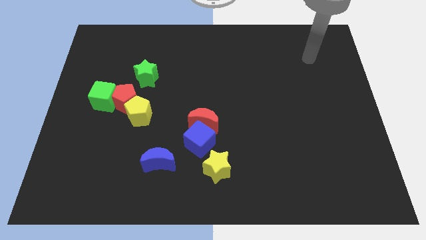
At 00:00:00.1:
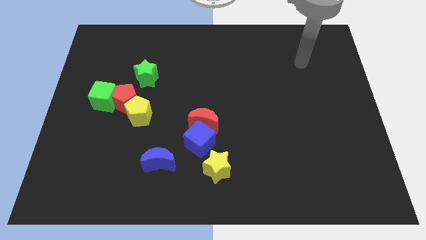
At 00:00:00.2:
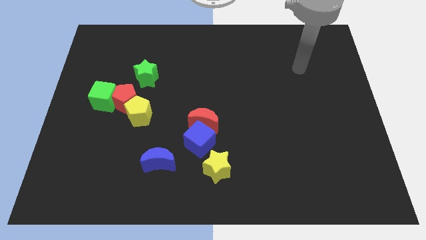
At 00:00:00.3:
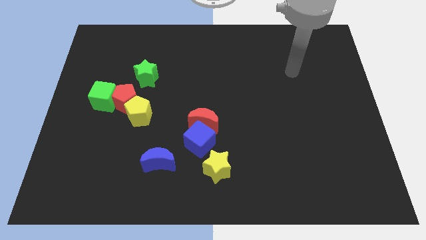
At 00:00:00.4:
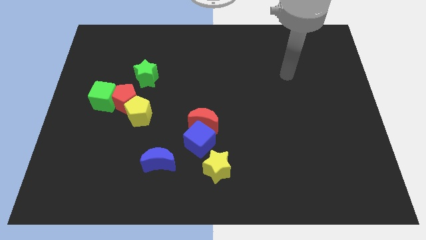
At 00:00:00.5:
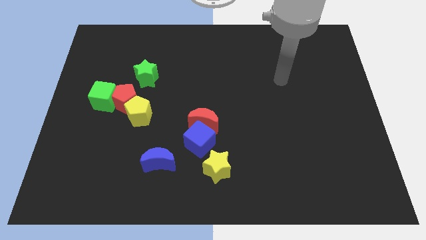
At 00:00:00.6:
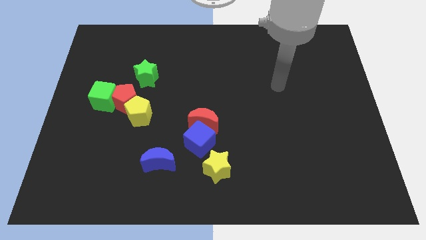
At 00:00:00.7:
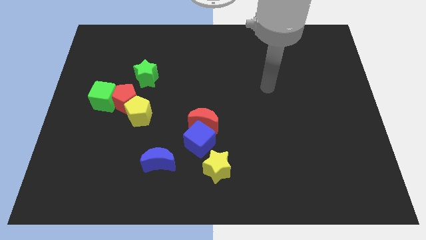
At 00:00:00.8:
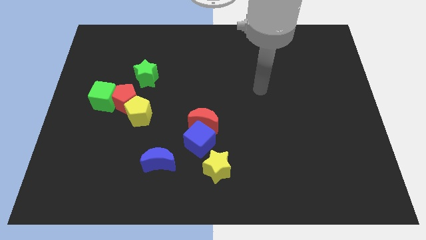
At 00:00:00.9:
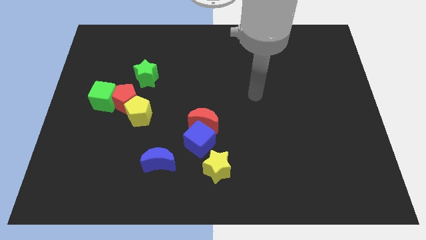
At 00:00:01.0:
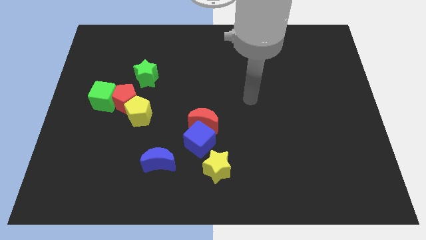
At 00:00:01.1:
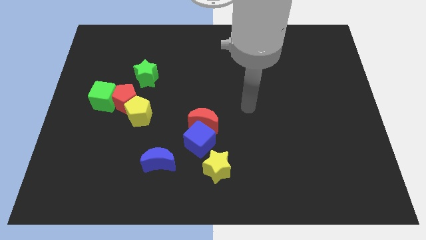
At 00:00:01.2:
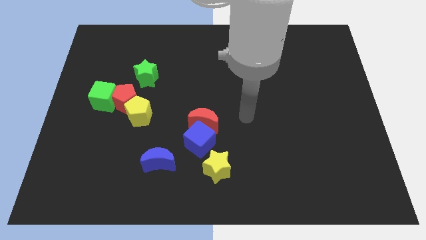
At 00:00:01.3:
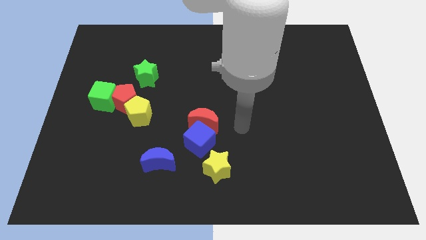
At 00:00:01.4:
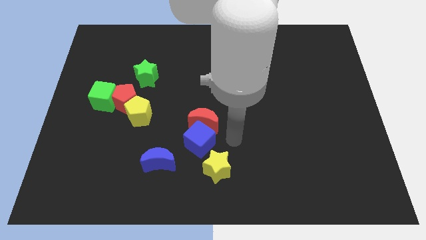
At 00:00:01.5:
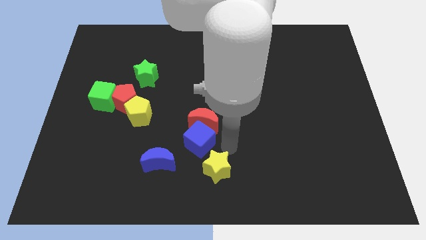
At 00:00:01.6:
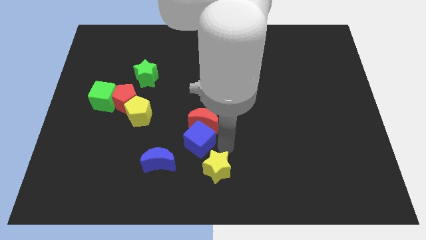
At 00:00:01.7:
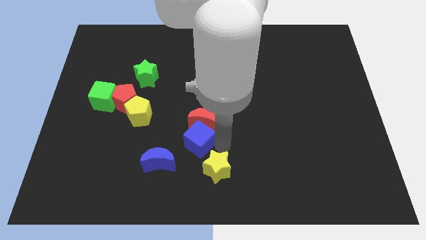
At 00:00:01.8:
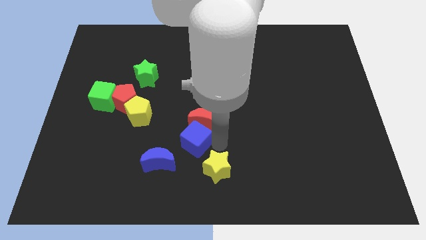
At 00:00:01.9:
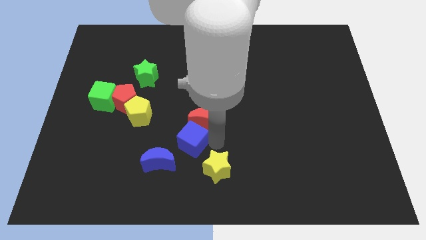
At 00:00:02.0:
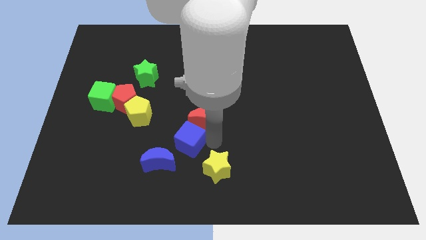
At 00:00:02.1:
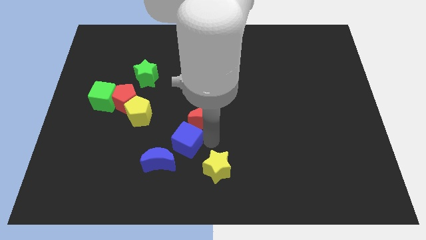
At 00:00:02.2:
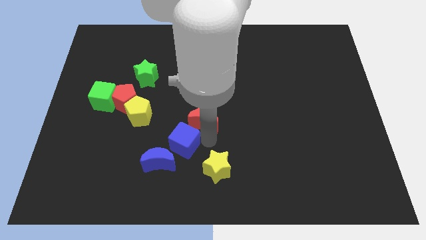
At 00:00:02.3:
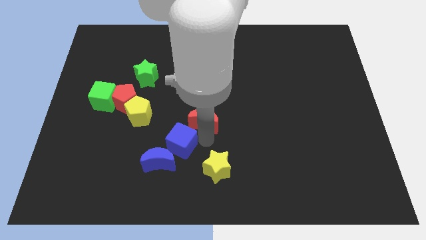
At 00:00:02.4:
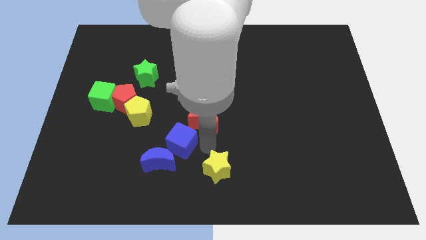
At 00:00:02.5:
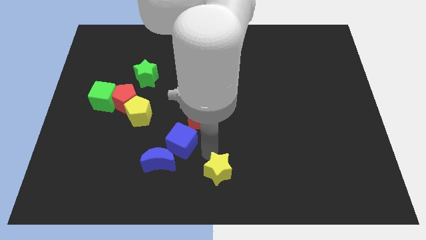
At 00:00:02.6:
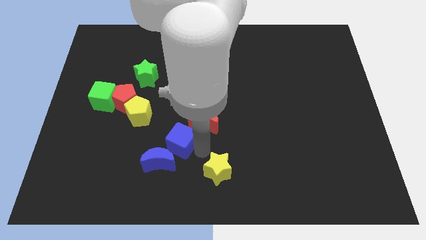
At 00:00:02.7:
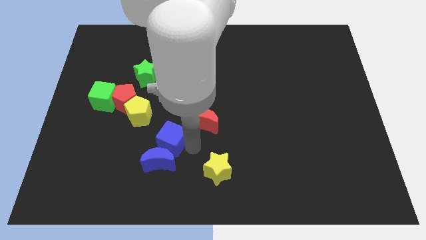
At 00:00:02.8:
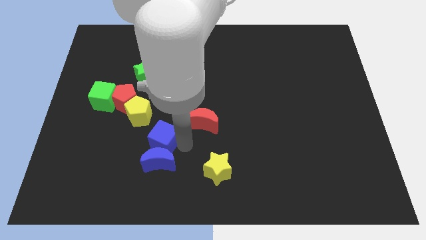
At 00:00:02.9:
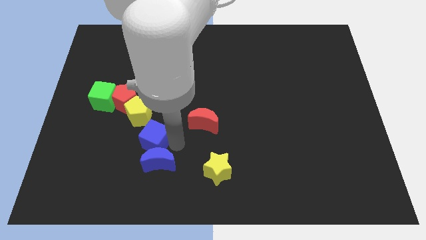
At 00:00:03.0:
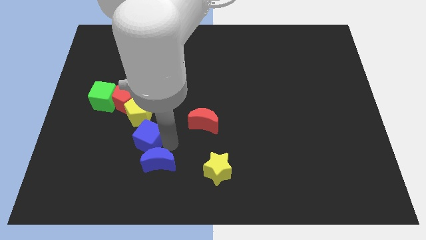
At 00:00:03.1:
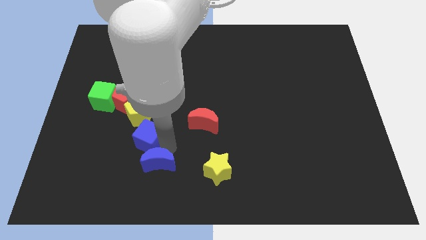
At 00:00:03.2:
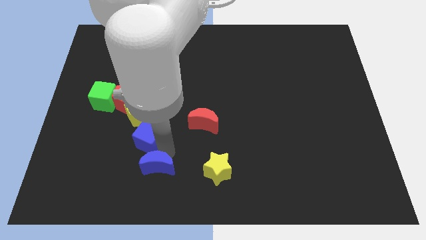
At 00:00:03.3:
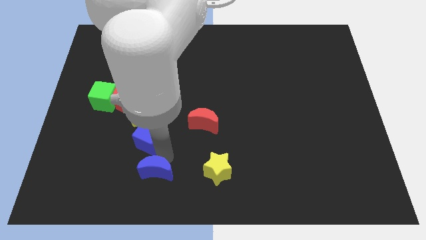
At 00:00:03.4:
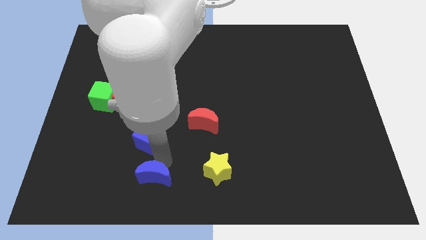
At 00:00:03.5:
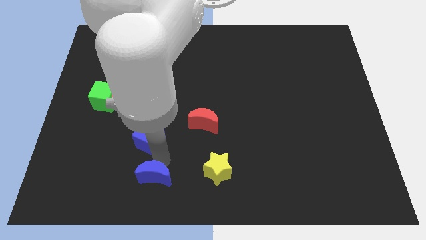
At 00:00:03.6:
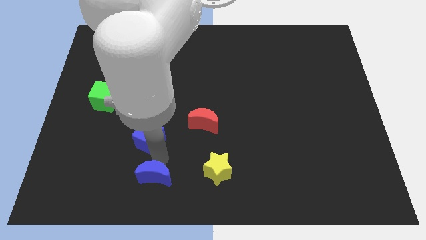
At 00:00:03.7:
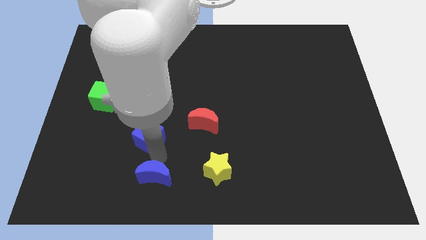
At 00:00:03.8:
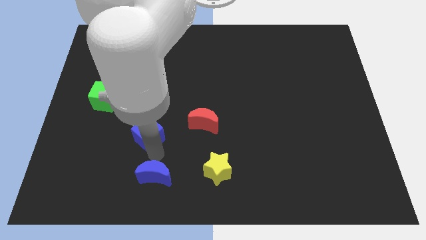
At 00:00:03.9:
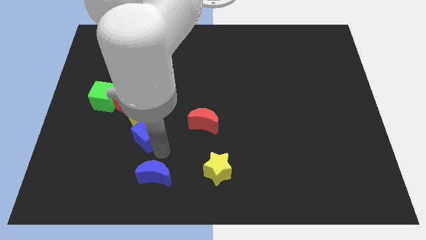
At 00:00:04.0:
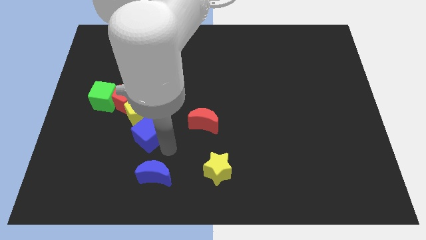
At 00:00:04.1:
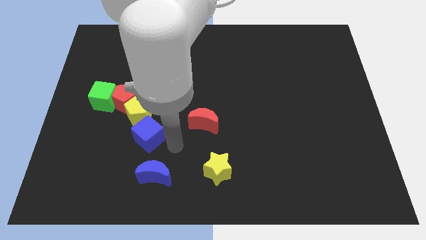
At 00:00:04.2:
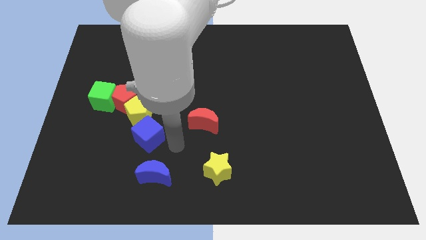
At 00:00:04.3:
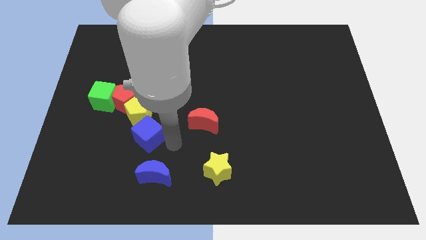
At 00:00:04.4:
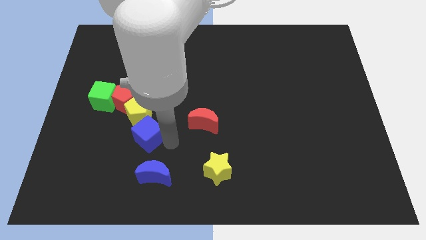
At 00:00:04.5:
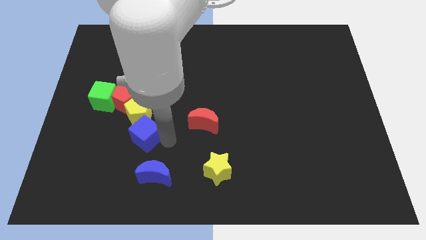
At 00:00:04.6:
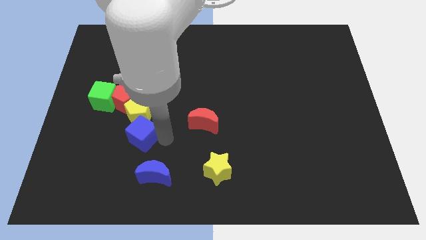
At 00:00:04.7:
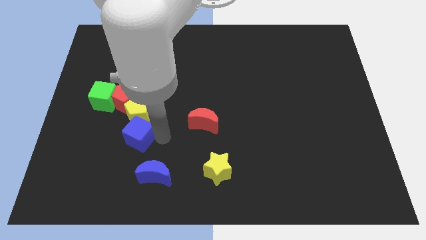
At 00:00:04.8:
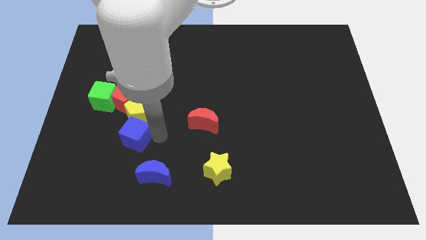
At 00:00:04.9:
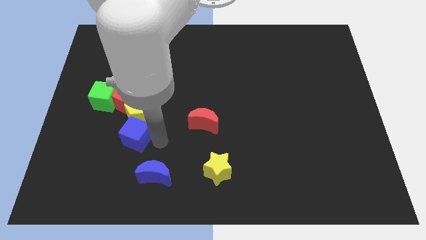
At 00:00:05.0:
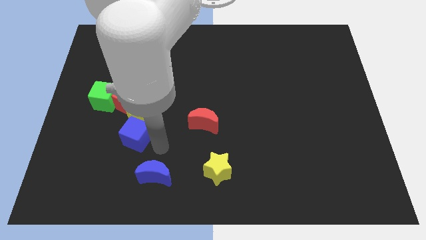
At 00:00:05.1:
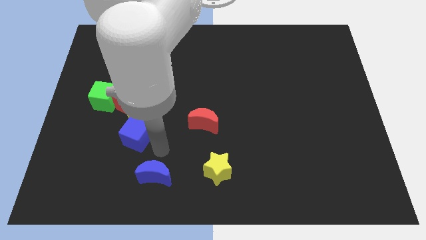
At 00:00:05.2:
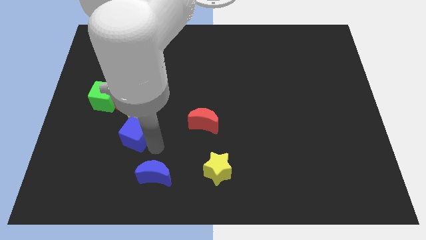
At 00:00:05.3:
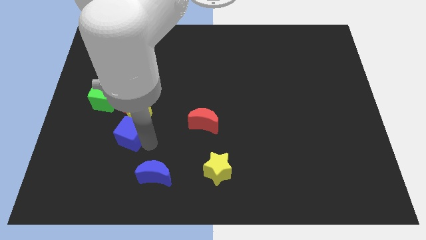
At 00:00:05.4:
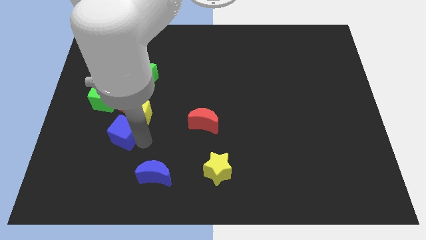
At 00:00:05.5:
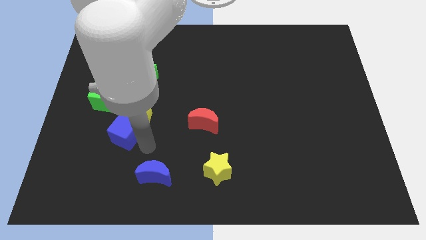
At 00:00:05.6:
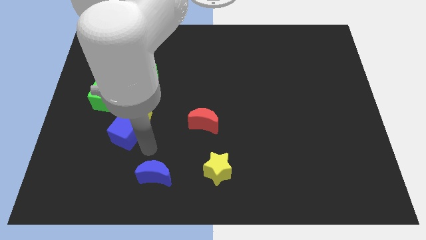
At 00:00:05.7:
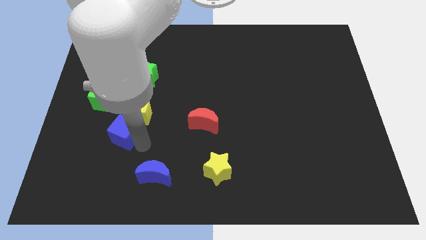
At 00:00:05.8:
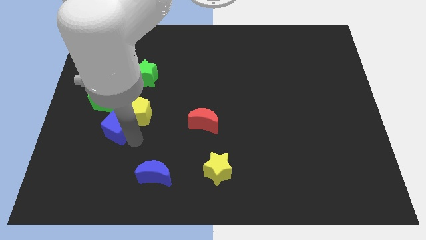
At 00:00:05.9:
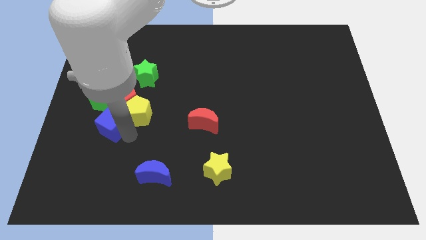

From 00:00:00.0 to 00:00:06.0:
put the blue cube to the bottom left of the red pentagon

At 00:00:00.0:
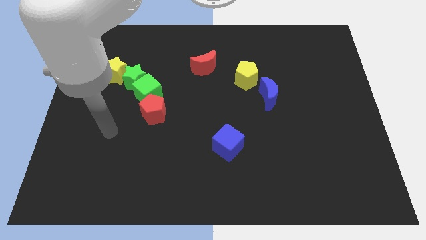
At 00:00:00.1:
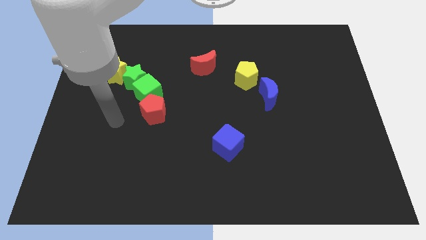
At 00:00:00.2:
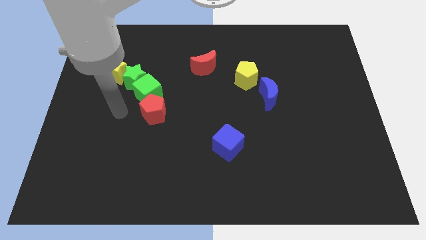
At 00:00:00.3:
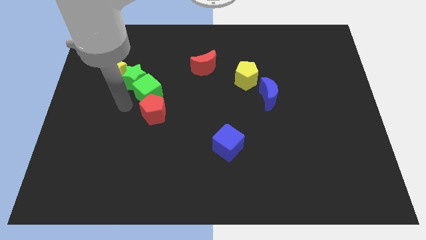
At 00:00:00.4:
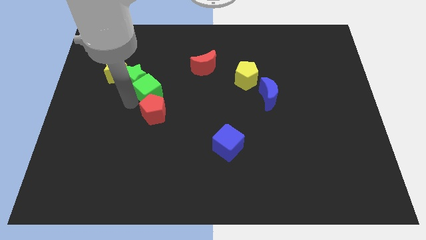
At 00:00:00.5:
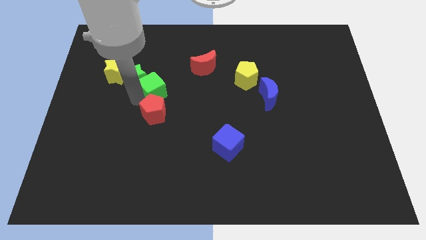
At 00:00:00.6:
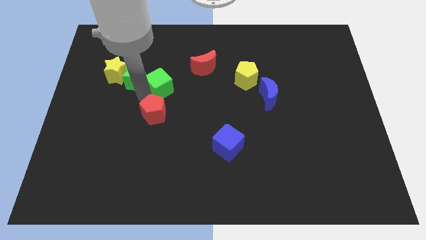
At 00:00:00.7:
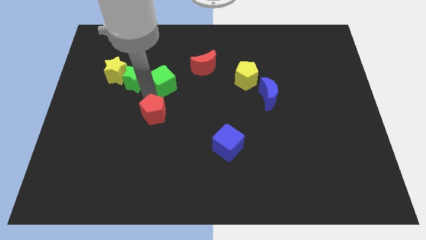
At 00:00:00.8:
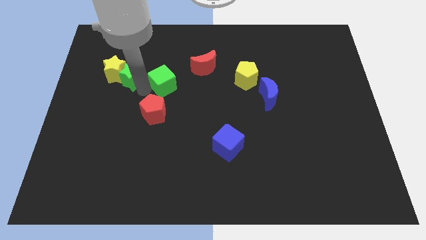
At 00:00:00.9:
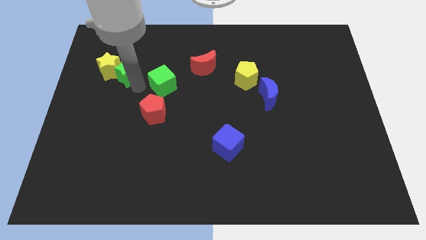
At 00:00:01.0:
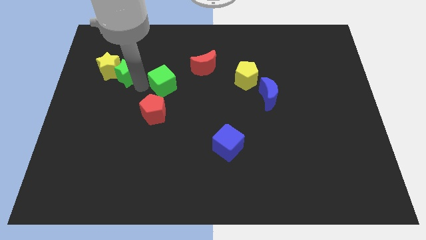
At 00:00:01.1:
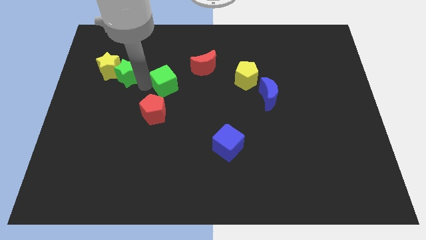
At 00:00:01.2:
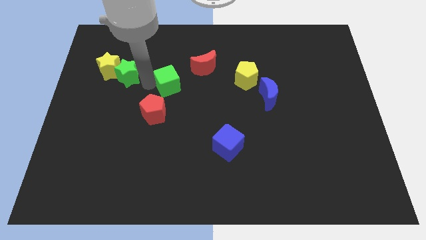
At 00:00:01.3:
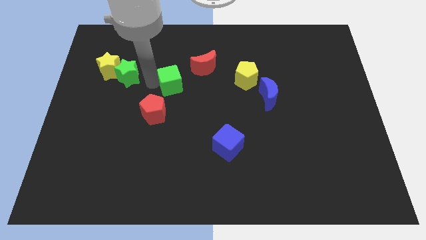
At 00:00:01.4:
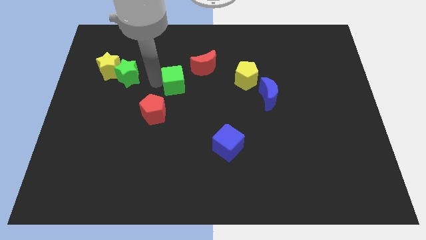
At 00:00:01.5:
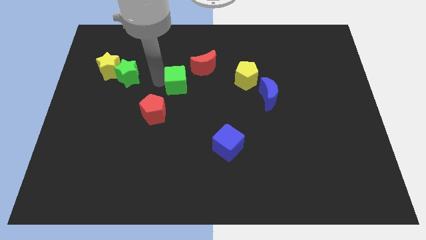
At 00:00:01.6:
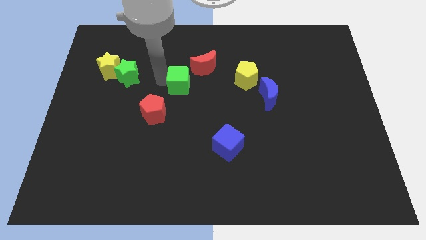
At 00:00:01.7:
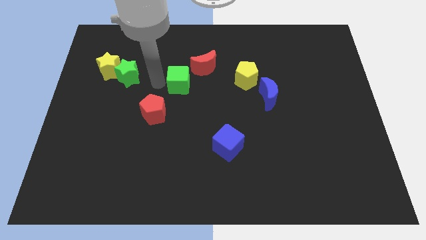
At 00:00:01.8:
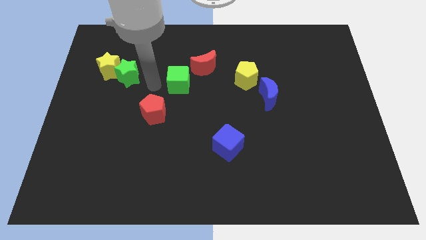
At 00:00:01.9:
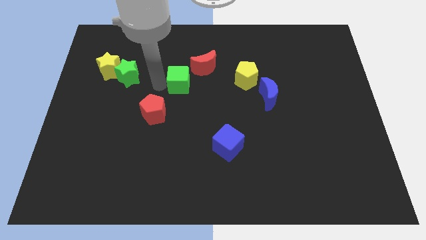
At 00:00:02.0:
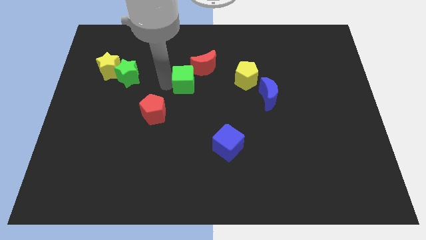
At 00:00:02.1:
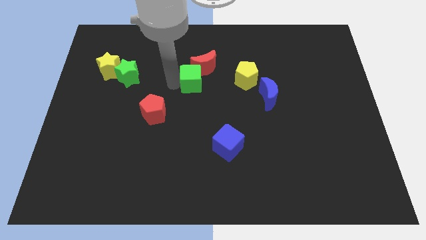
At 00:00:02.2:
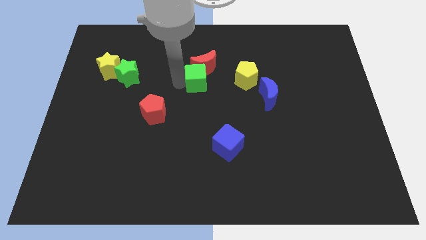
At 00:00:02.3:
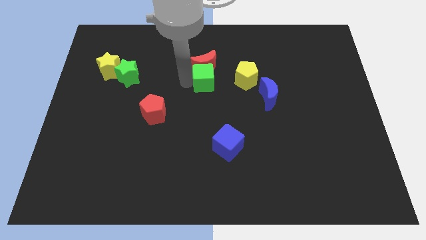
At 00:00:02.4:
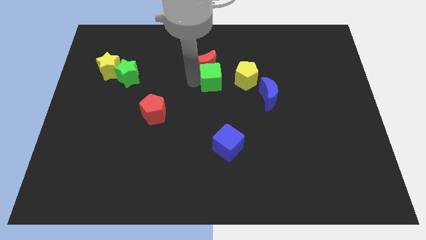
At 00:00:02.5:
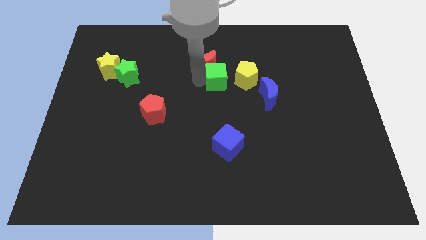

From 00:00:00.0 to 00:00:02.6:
push the green cube right of the red moon
